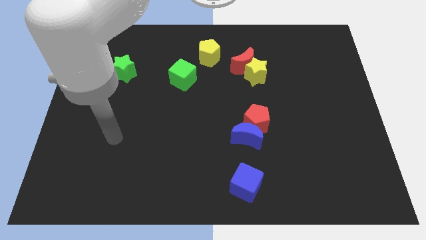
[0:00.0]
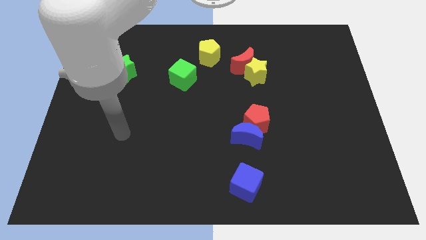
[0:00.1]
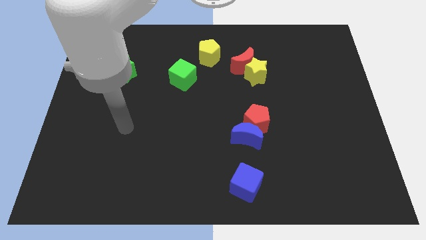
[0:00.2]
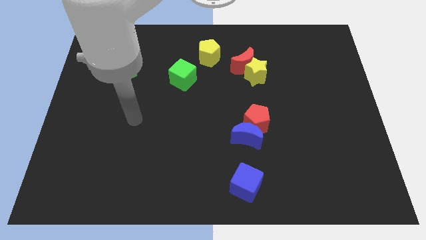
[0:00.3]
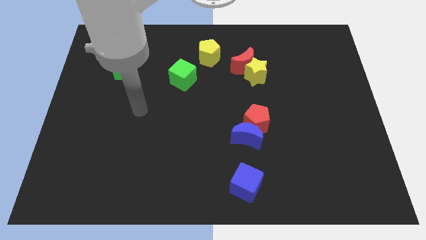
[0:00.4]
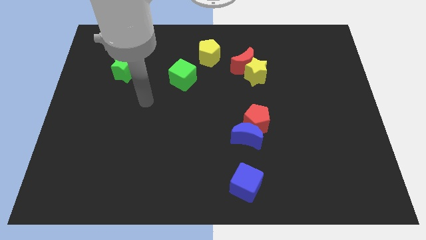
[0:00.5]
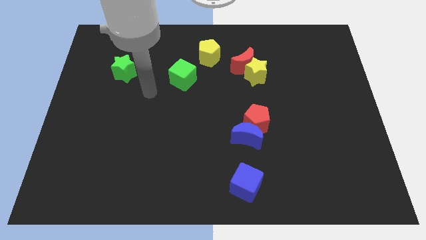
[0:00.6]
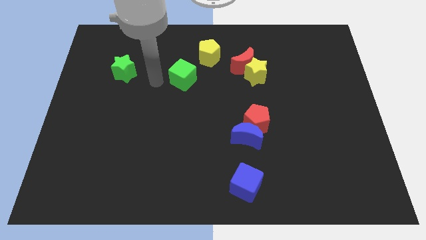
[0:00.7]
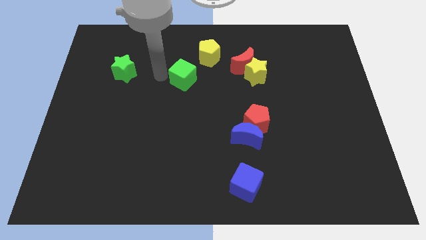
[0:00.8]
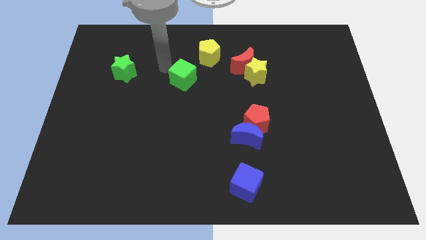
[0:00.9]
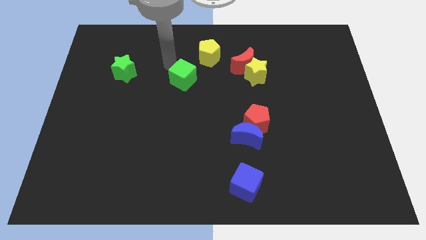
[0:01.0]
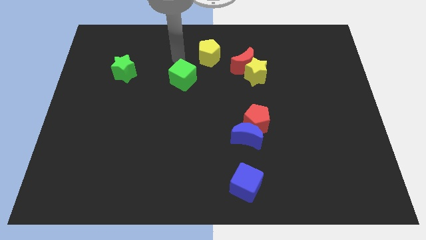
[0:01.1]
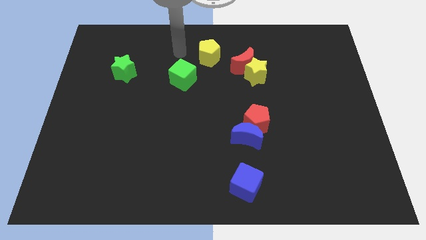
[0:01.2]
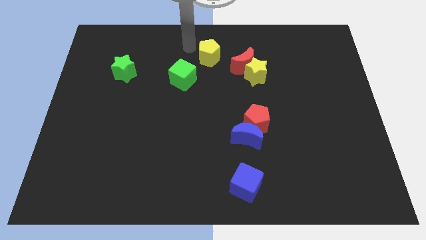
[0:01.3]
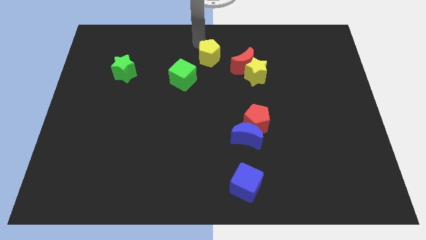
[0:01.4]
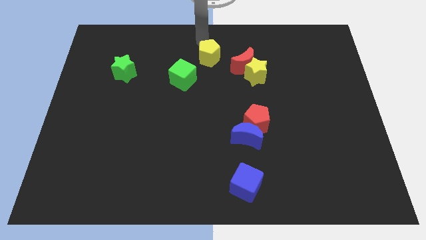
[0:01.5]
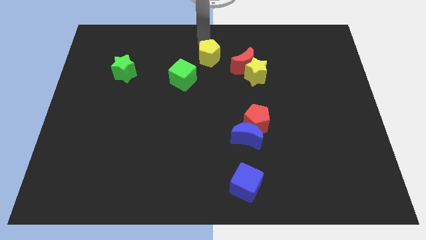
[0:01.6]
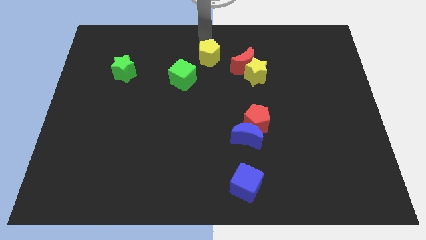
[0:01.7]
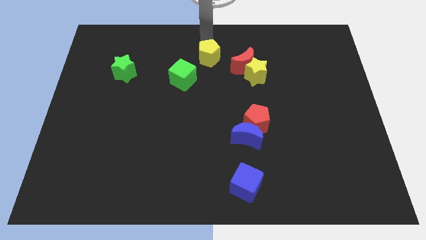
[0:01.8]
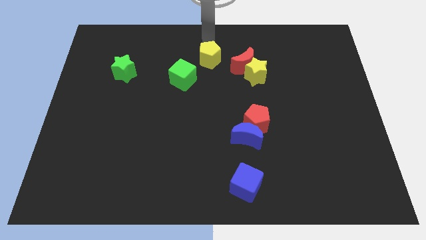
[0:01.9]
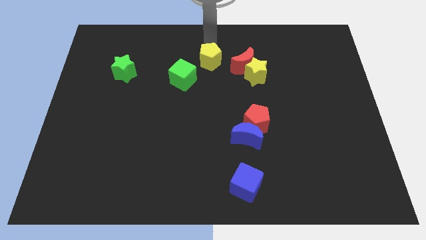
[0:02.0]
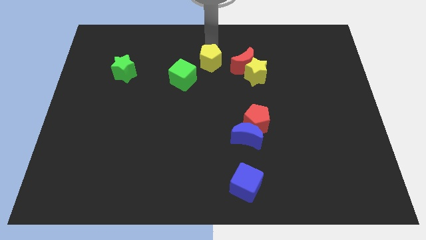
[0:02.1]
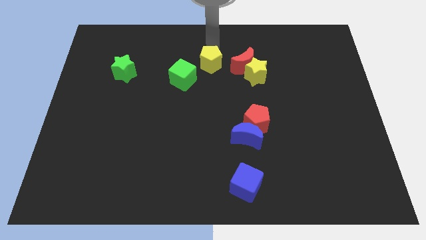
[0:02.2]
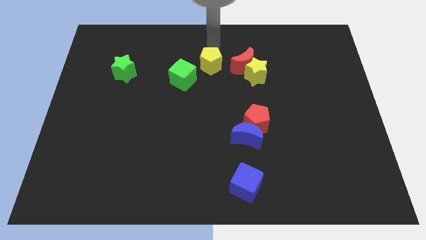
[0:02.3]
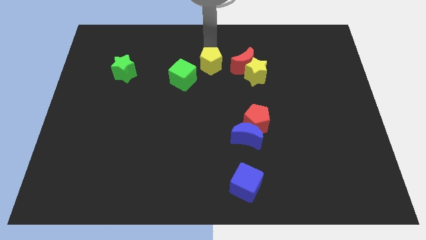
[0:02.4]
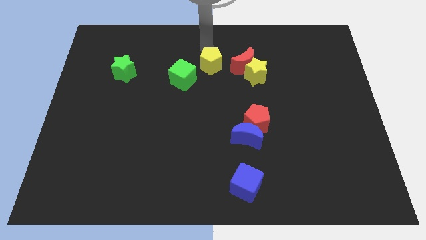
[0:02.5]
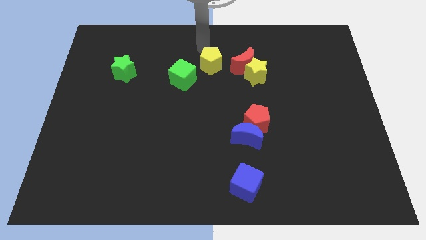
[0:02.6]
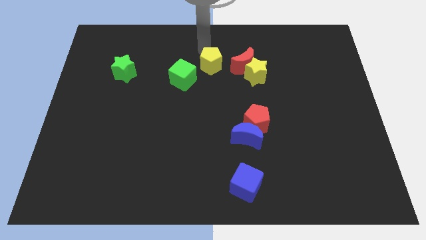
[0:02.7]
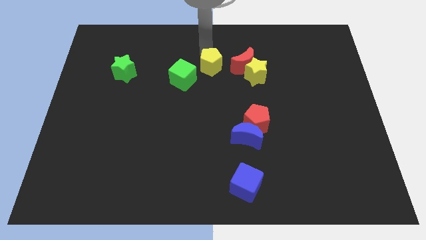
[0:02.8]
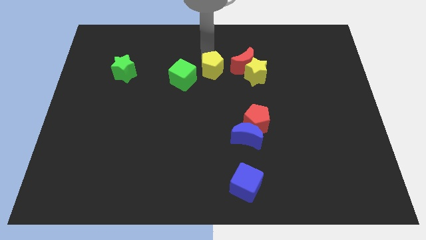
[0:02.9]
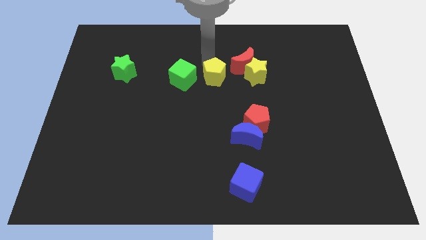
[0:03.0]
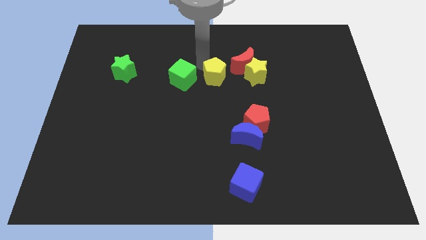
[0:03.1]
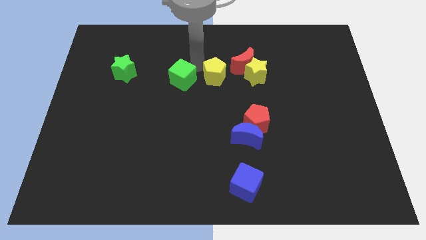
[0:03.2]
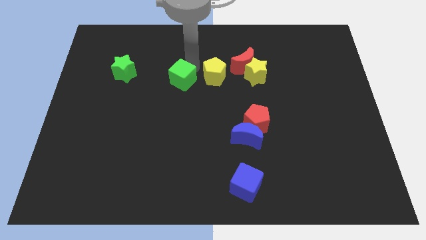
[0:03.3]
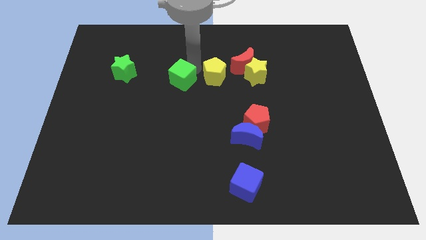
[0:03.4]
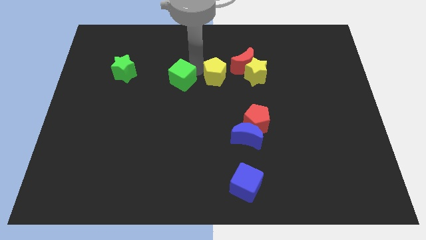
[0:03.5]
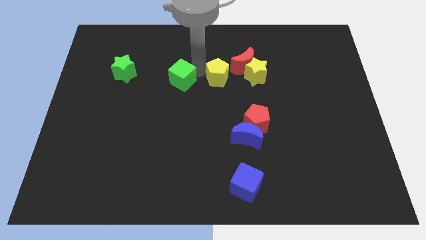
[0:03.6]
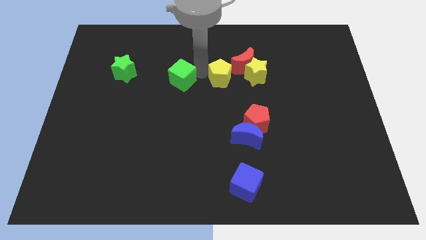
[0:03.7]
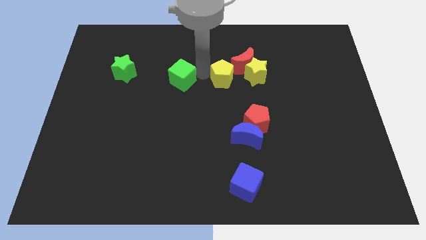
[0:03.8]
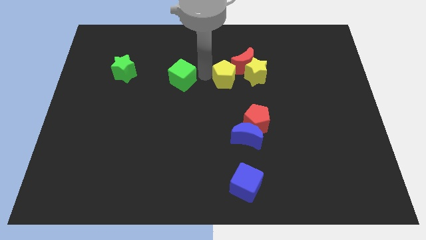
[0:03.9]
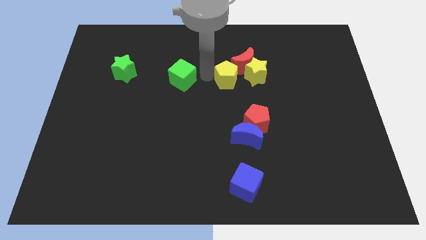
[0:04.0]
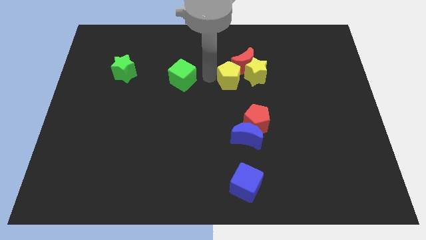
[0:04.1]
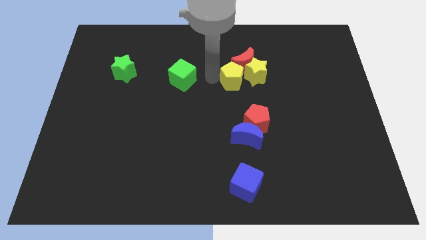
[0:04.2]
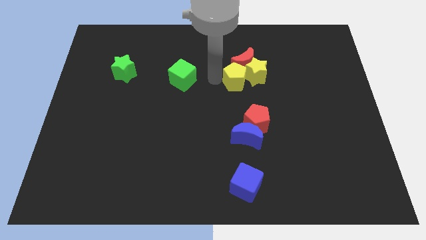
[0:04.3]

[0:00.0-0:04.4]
push the yellow pentagon to the top of the red pentagon

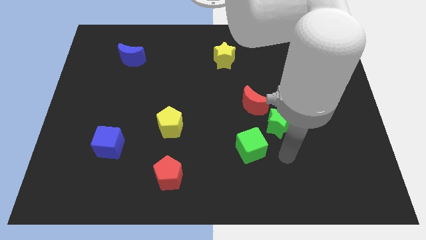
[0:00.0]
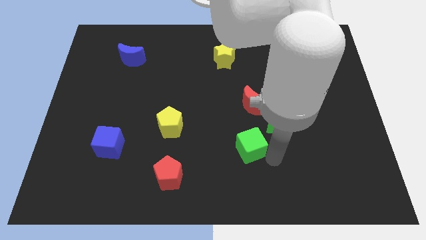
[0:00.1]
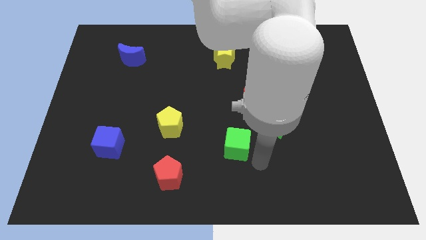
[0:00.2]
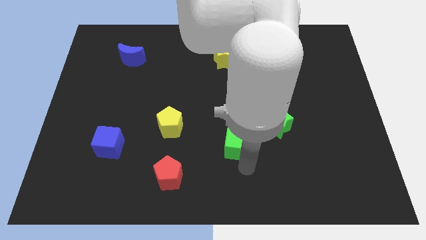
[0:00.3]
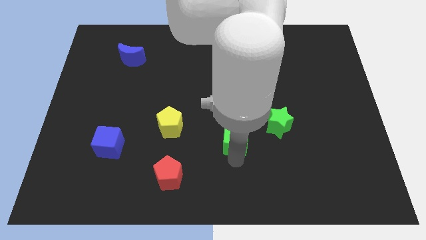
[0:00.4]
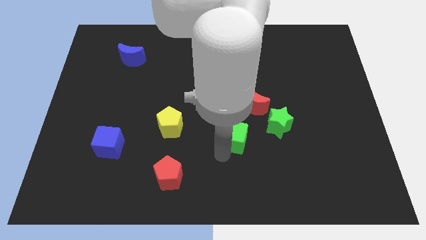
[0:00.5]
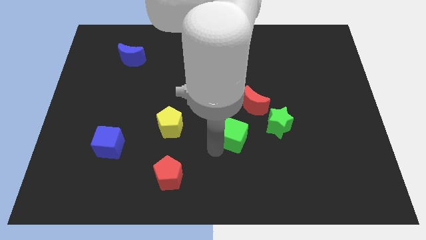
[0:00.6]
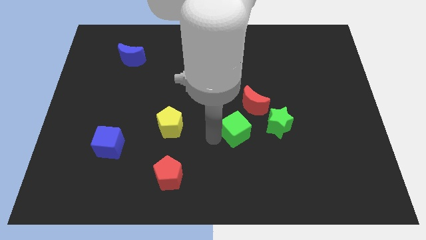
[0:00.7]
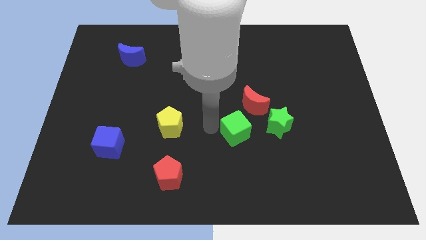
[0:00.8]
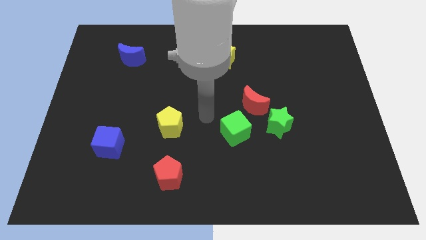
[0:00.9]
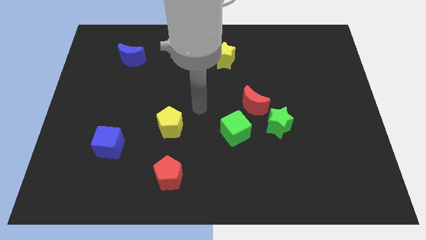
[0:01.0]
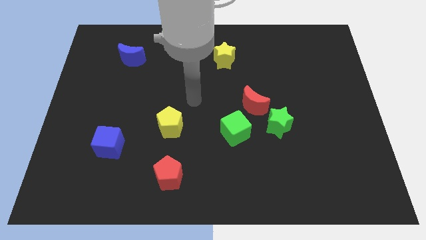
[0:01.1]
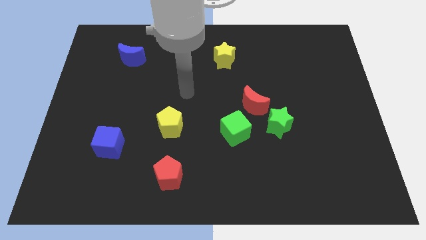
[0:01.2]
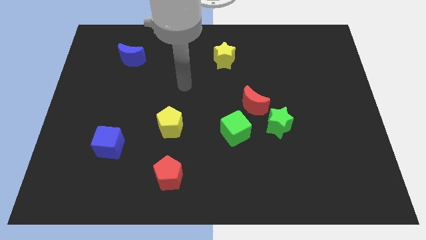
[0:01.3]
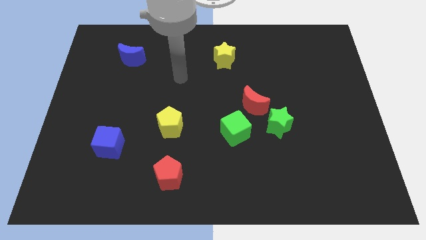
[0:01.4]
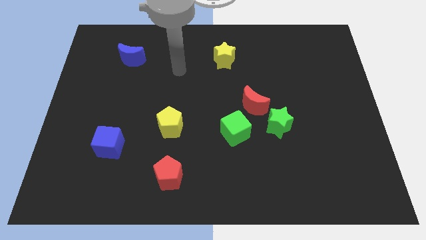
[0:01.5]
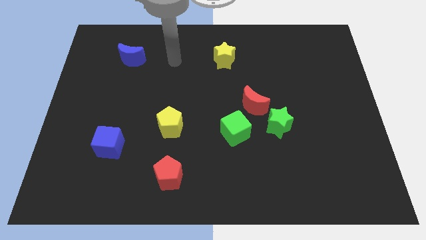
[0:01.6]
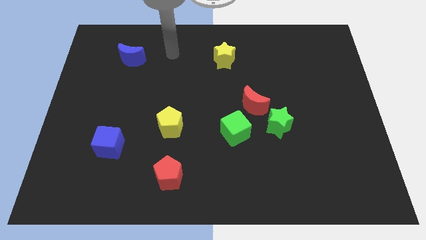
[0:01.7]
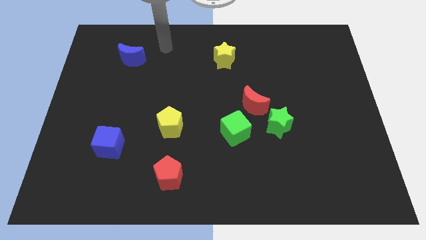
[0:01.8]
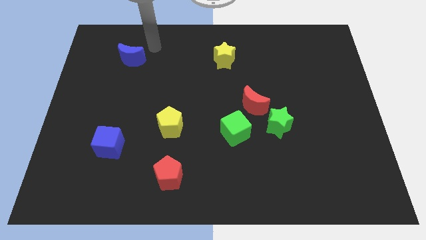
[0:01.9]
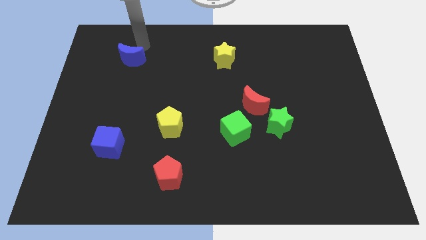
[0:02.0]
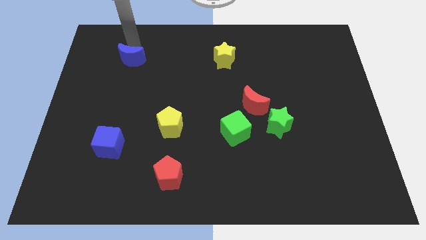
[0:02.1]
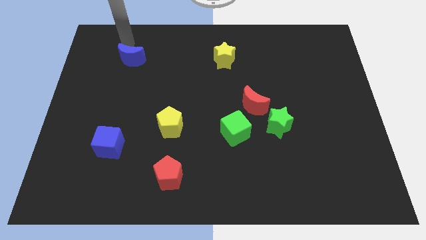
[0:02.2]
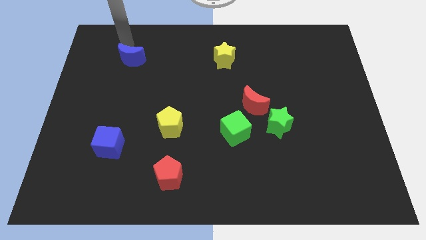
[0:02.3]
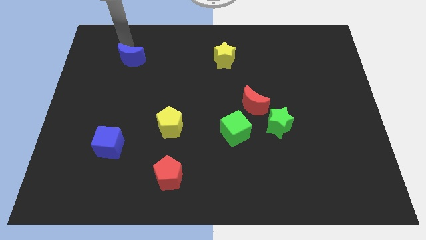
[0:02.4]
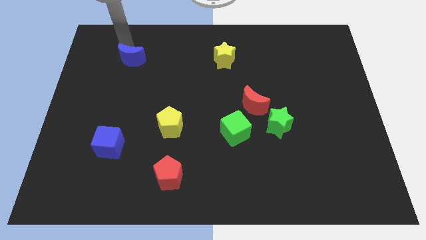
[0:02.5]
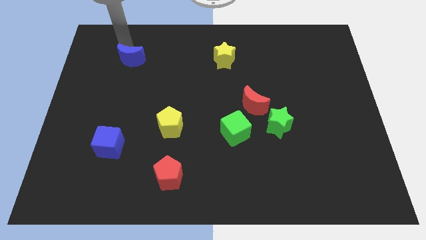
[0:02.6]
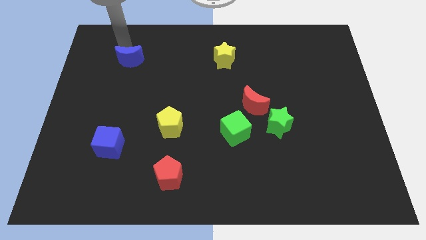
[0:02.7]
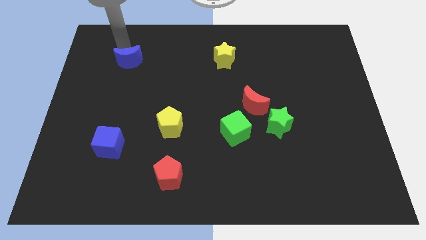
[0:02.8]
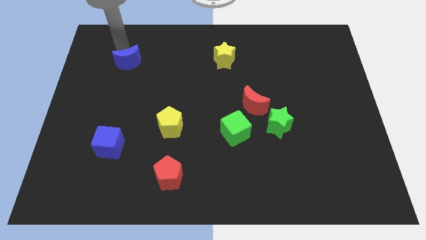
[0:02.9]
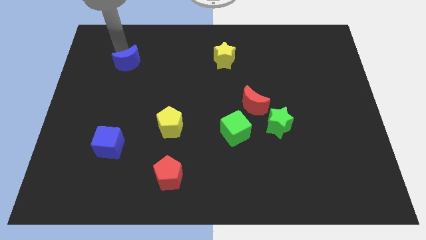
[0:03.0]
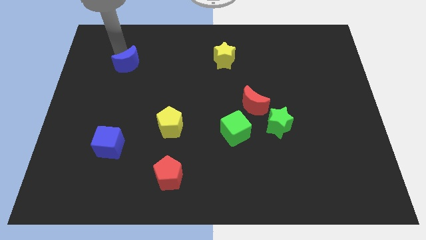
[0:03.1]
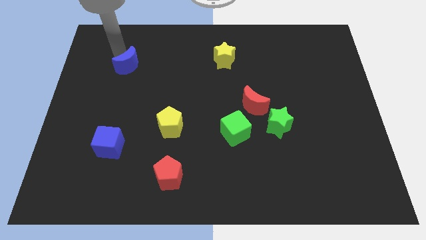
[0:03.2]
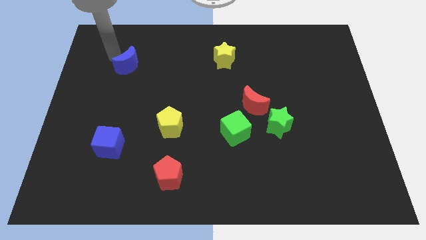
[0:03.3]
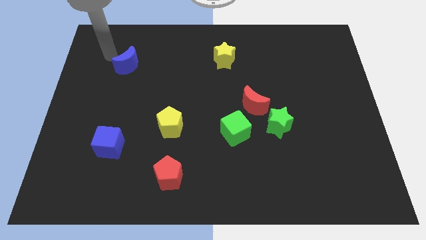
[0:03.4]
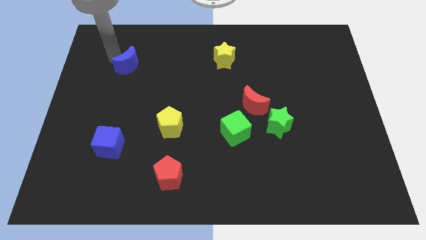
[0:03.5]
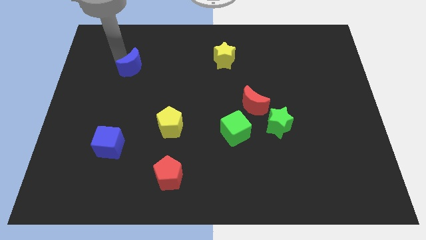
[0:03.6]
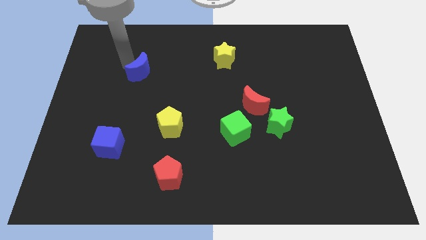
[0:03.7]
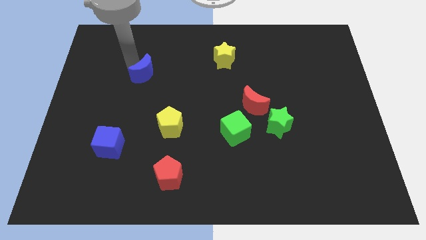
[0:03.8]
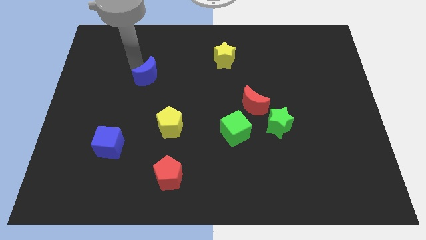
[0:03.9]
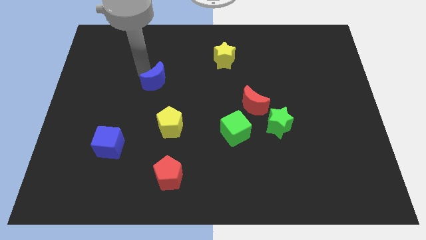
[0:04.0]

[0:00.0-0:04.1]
move the blue moon above the yellow pentagon
